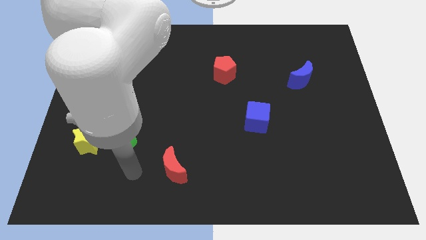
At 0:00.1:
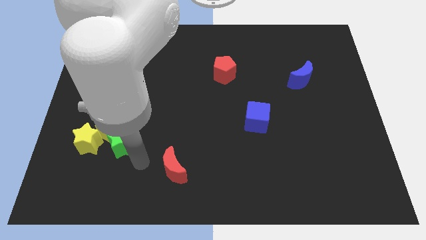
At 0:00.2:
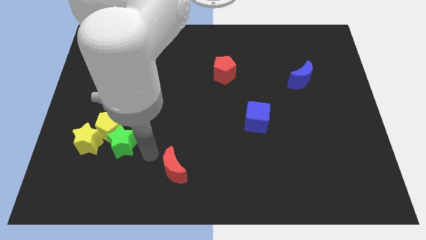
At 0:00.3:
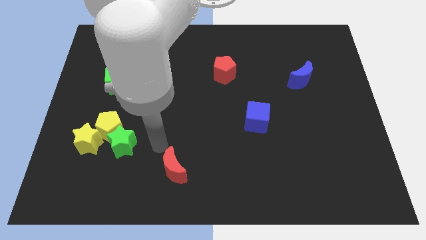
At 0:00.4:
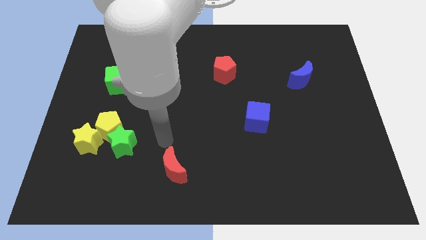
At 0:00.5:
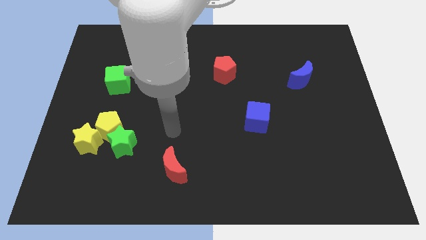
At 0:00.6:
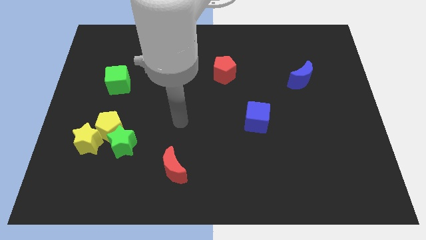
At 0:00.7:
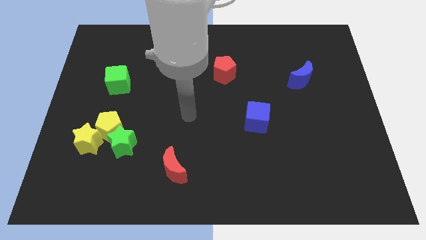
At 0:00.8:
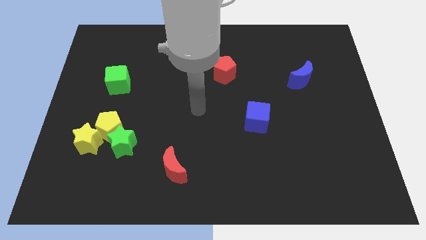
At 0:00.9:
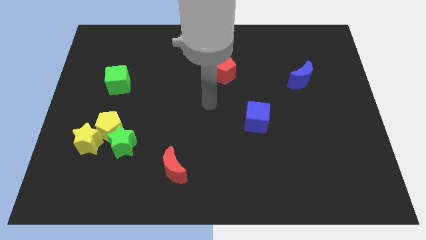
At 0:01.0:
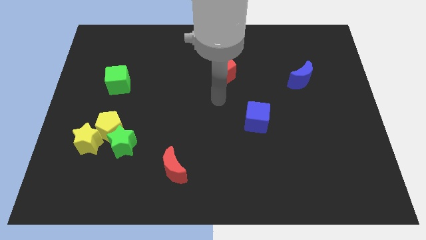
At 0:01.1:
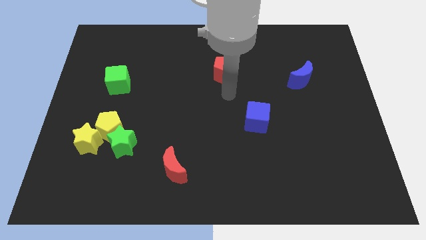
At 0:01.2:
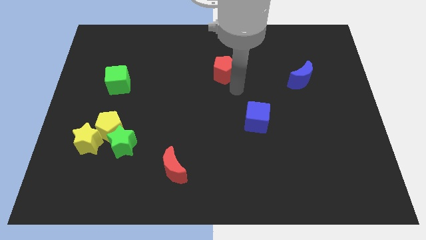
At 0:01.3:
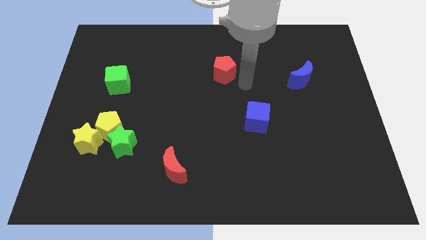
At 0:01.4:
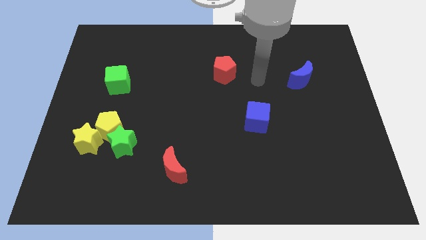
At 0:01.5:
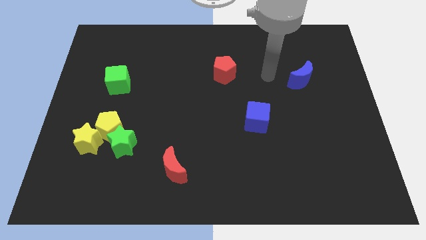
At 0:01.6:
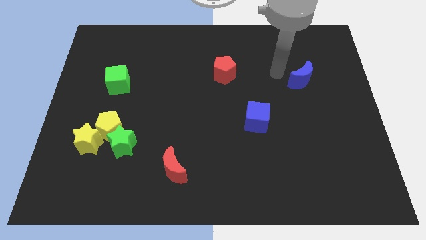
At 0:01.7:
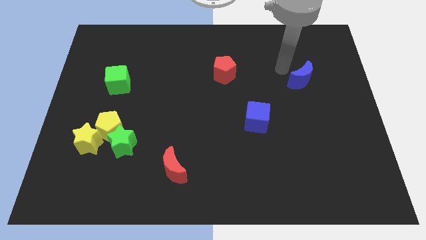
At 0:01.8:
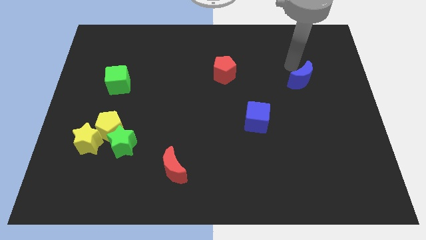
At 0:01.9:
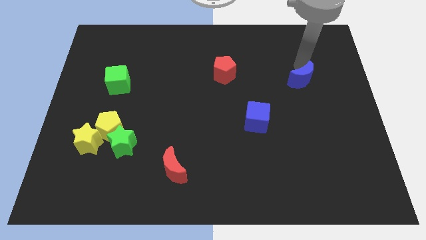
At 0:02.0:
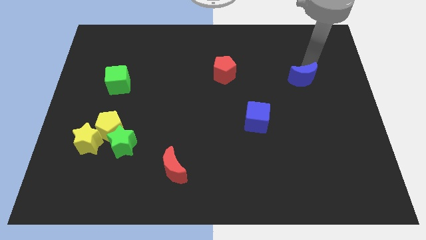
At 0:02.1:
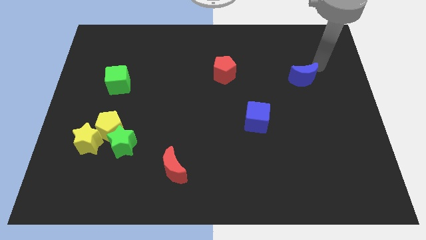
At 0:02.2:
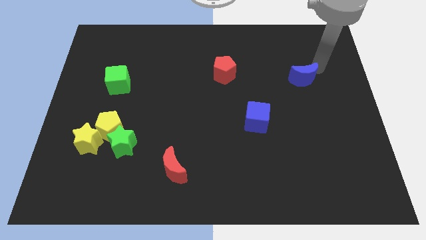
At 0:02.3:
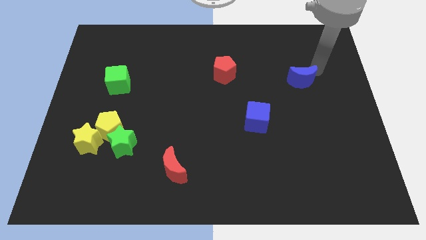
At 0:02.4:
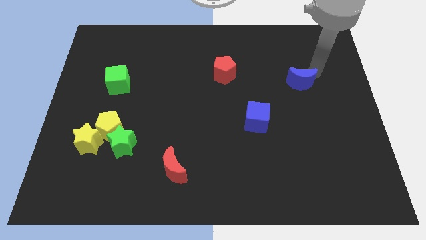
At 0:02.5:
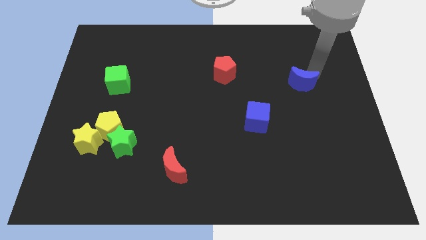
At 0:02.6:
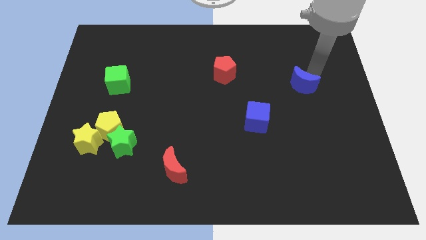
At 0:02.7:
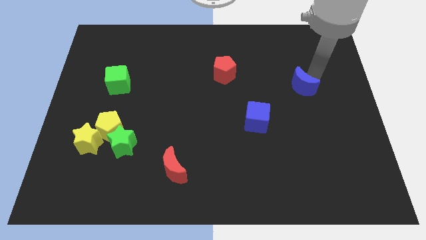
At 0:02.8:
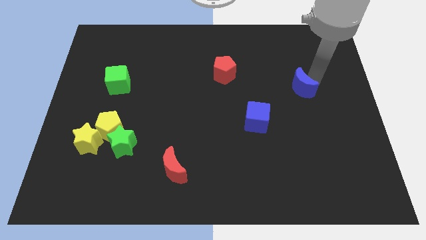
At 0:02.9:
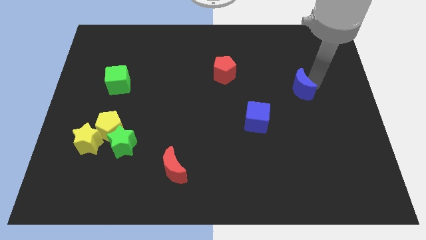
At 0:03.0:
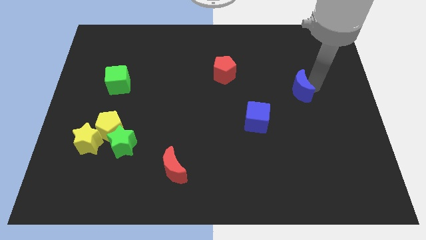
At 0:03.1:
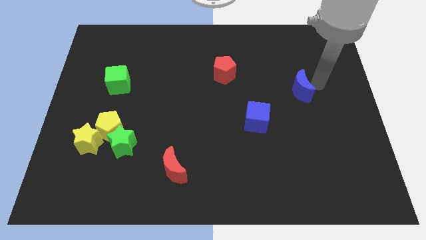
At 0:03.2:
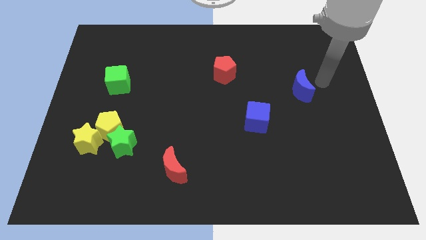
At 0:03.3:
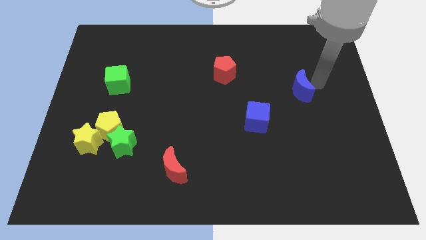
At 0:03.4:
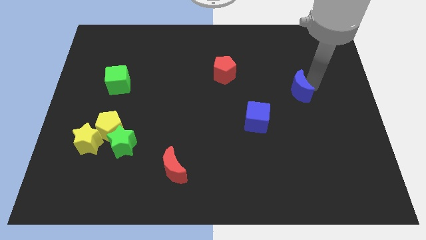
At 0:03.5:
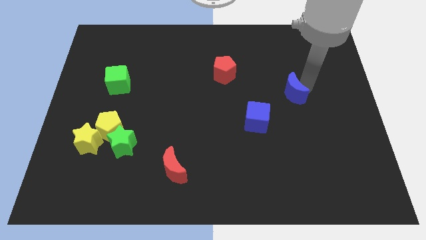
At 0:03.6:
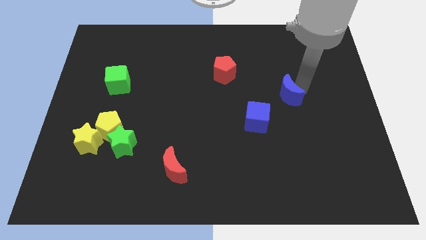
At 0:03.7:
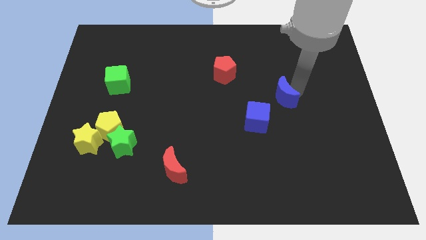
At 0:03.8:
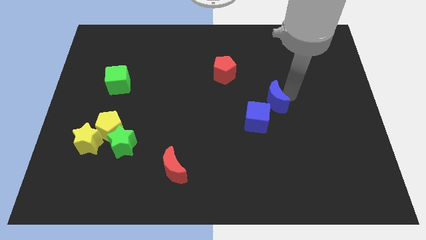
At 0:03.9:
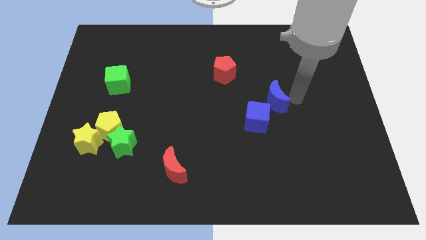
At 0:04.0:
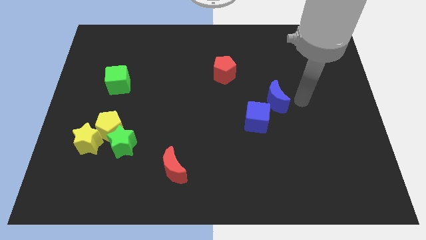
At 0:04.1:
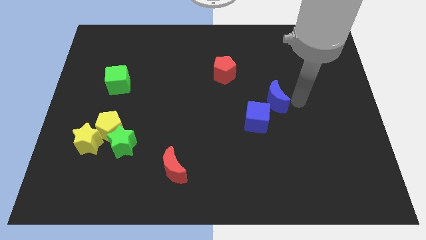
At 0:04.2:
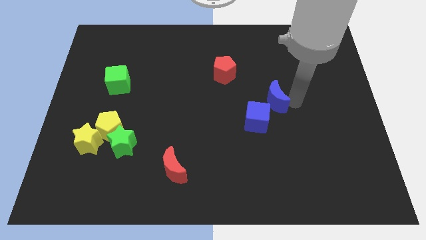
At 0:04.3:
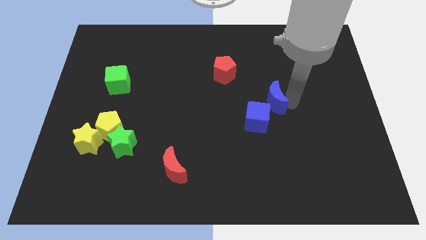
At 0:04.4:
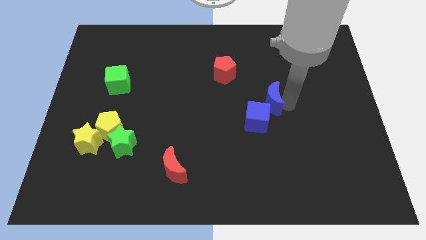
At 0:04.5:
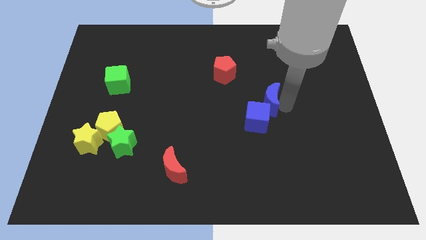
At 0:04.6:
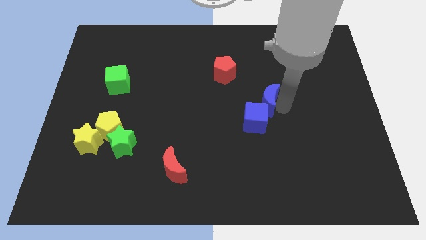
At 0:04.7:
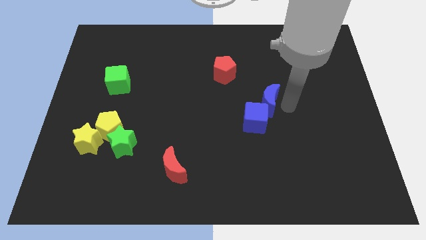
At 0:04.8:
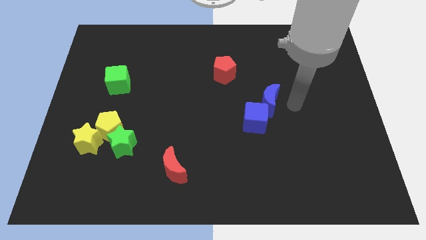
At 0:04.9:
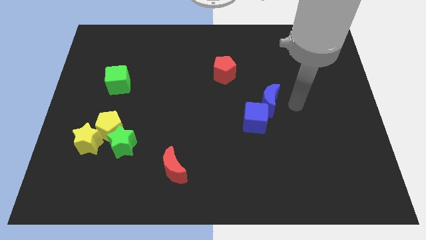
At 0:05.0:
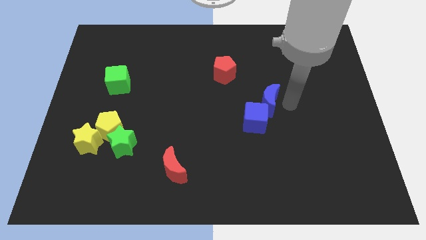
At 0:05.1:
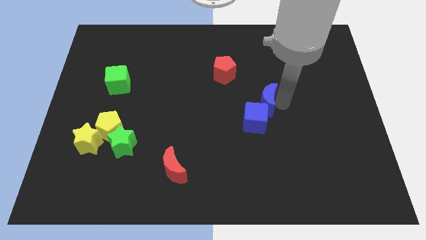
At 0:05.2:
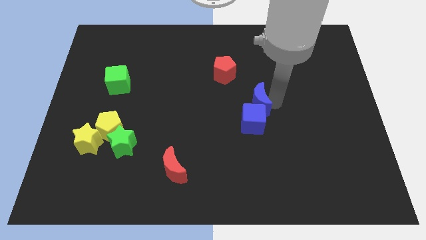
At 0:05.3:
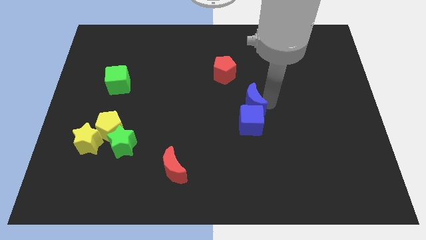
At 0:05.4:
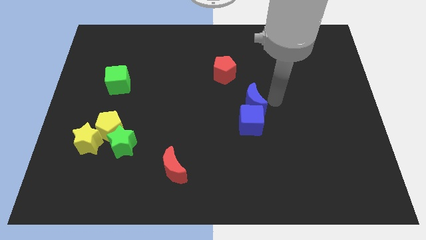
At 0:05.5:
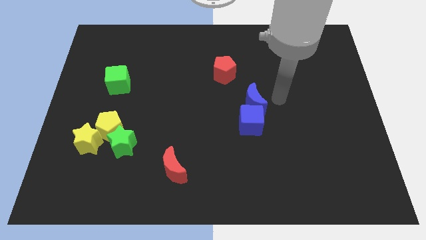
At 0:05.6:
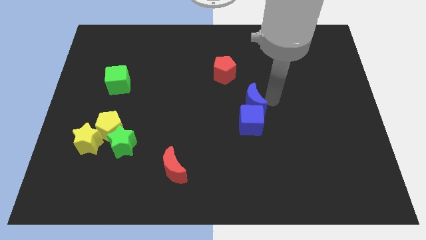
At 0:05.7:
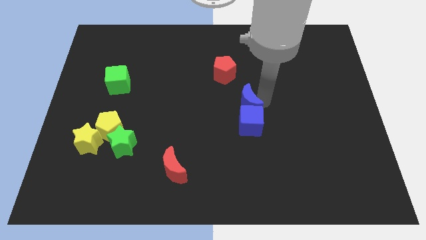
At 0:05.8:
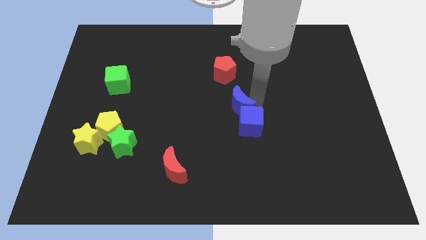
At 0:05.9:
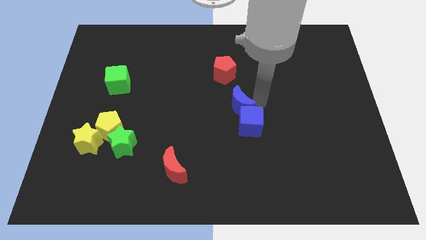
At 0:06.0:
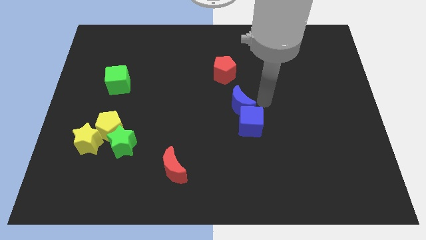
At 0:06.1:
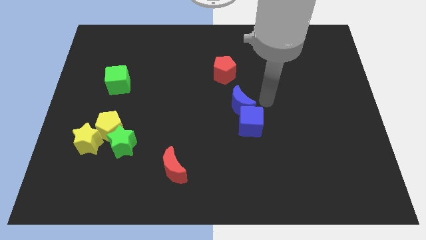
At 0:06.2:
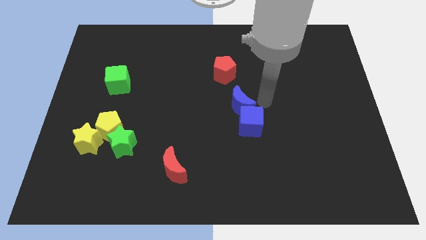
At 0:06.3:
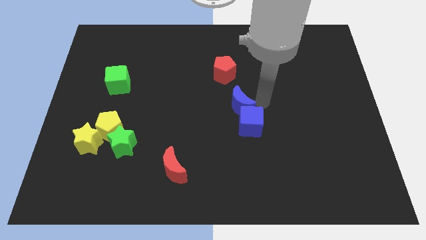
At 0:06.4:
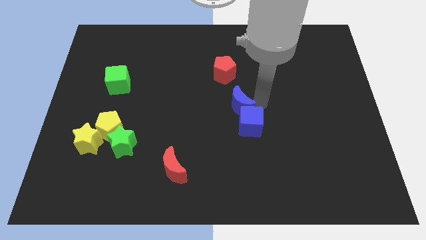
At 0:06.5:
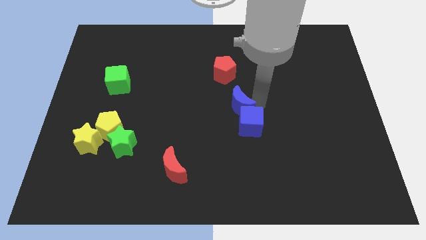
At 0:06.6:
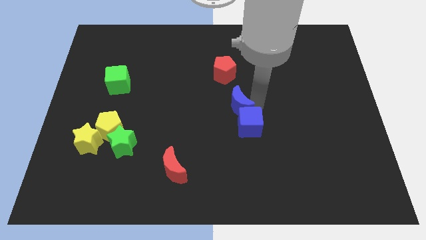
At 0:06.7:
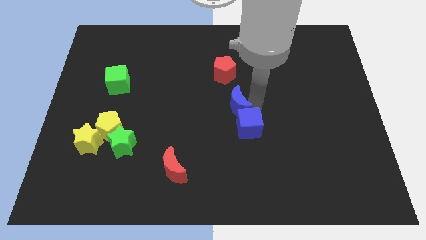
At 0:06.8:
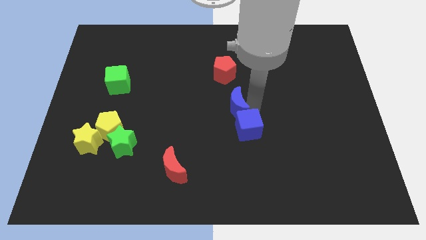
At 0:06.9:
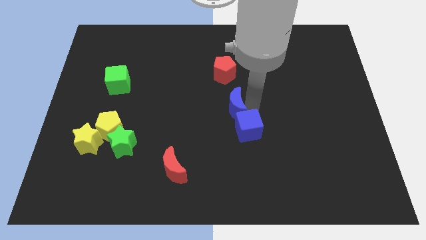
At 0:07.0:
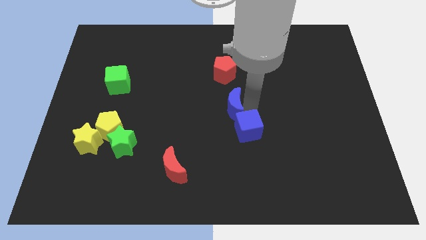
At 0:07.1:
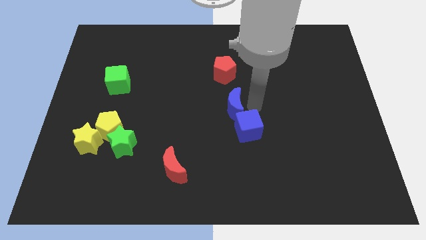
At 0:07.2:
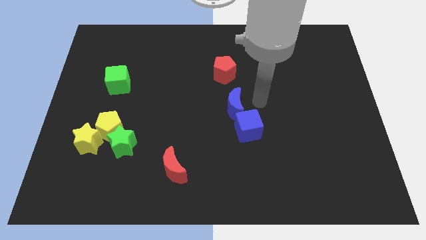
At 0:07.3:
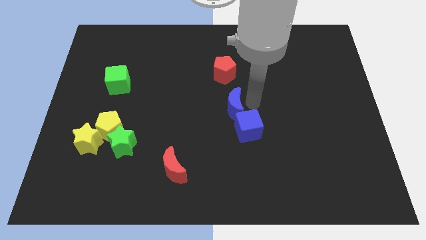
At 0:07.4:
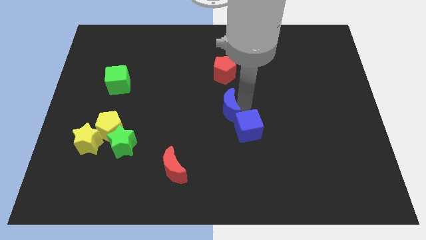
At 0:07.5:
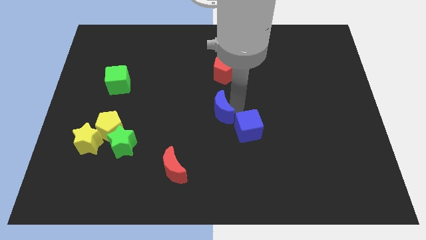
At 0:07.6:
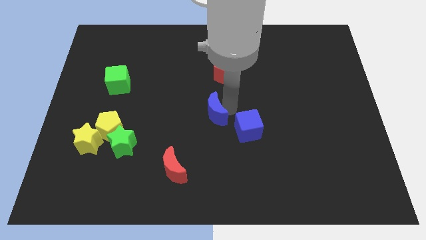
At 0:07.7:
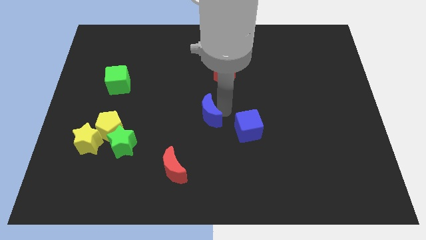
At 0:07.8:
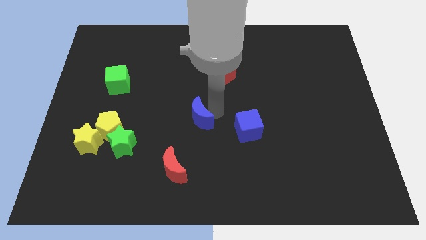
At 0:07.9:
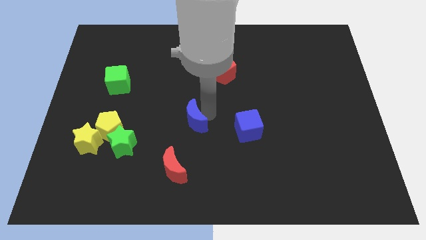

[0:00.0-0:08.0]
slide the blue moon to the top of the red moon
